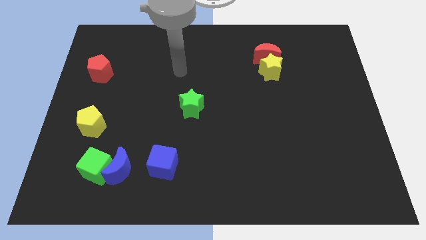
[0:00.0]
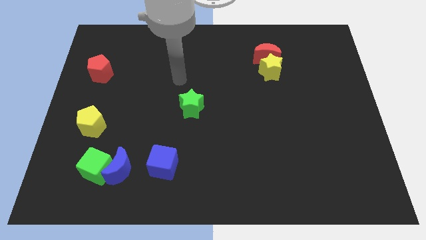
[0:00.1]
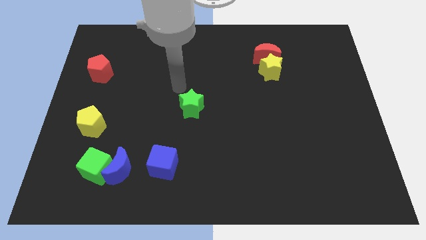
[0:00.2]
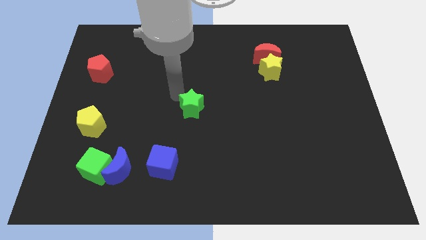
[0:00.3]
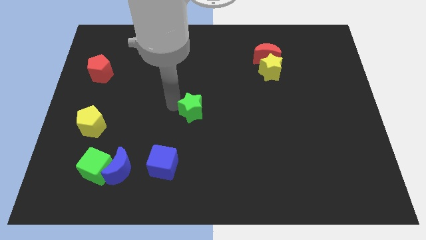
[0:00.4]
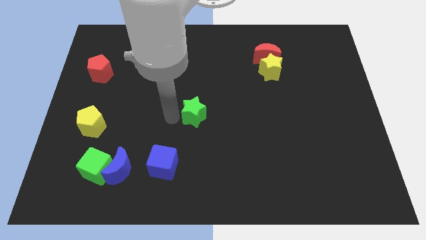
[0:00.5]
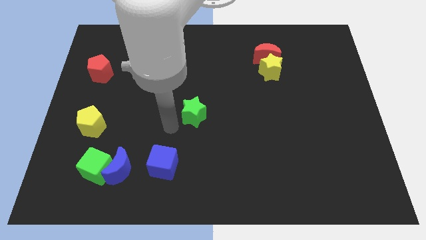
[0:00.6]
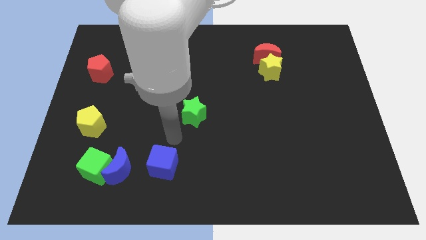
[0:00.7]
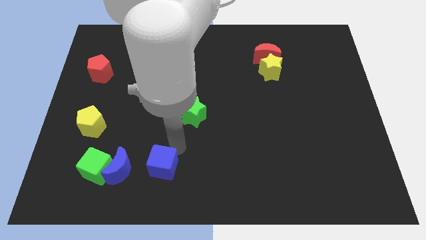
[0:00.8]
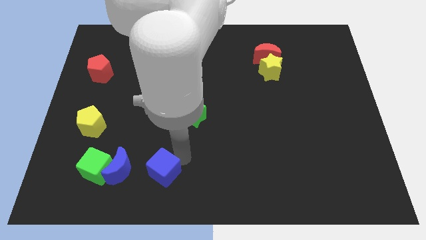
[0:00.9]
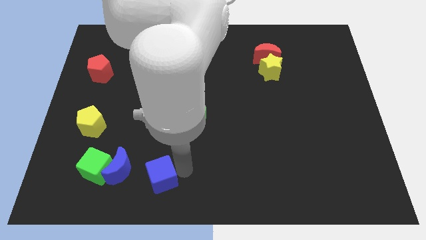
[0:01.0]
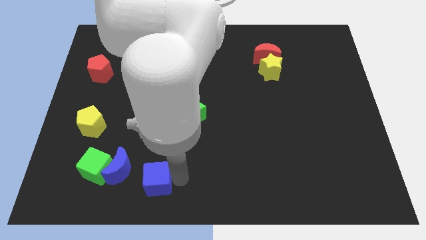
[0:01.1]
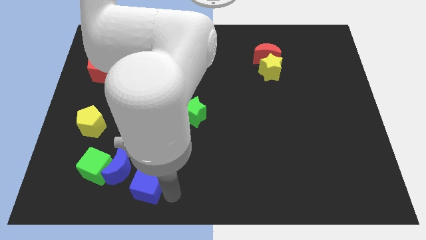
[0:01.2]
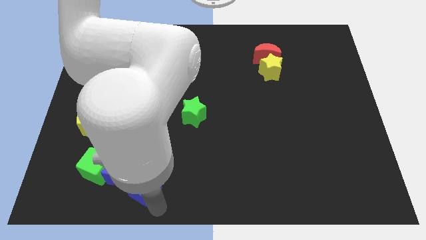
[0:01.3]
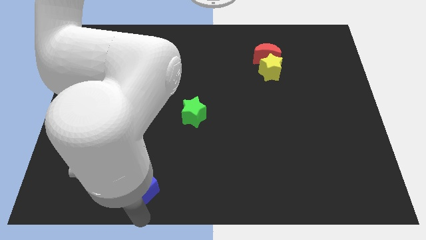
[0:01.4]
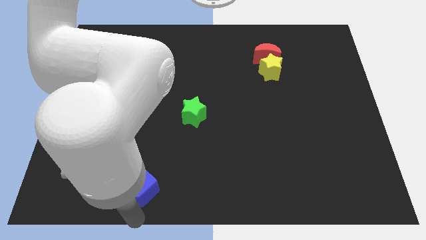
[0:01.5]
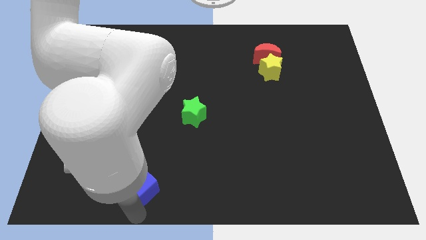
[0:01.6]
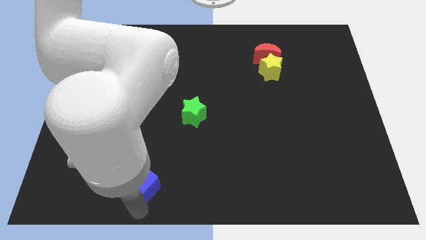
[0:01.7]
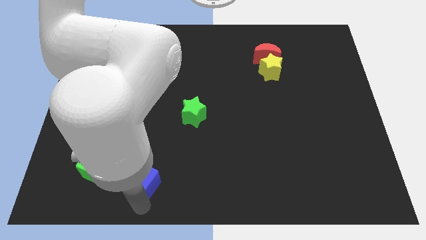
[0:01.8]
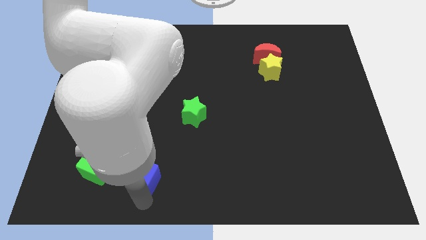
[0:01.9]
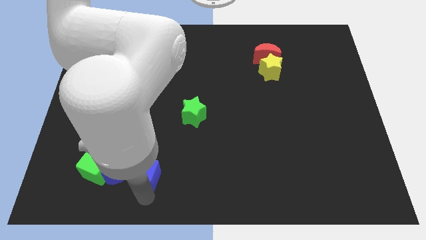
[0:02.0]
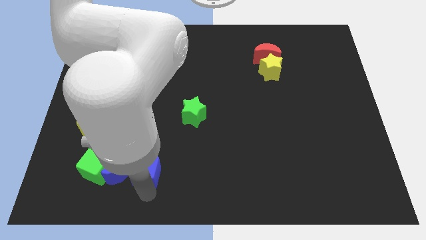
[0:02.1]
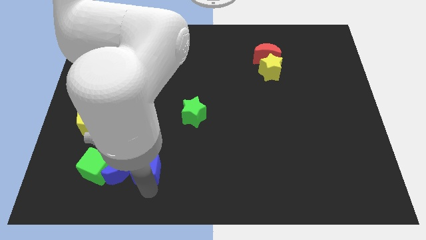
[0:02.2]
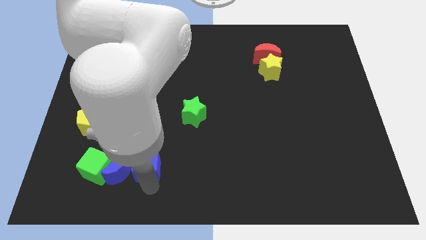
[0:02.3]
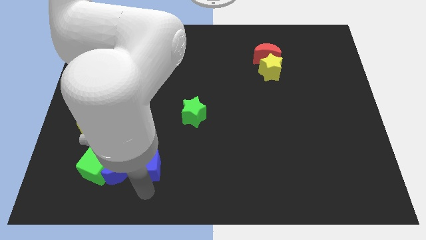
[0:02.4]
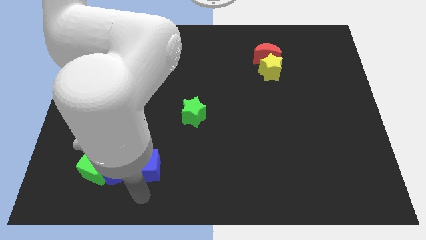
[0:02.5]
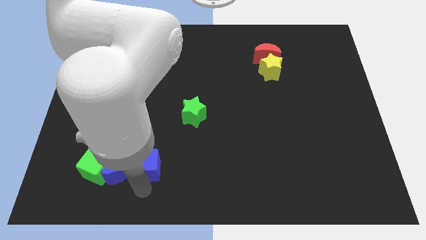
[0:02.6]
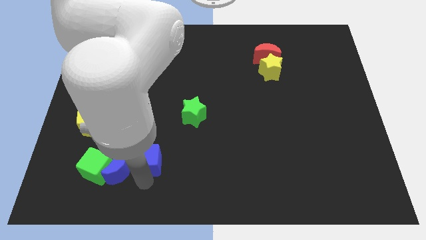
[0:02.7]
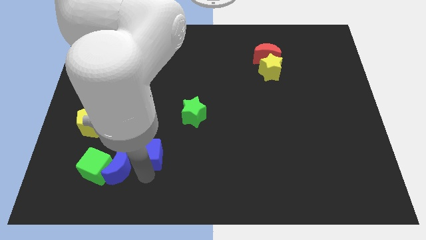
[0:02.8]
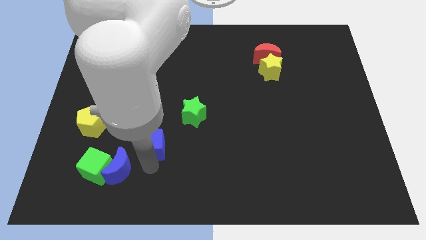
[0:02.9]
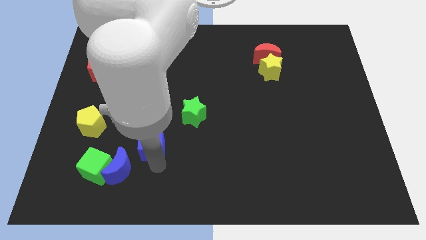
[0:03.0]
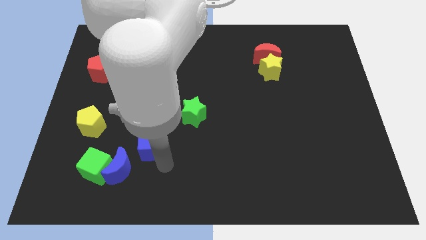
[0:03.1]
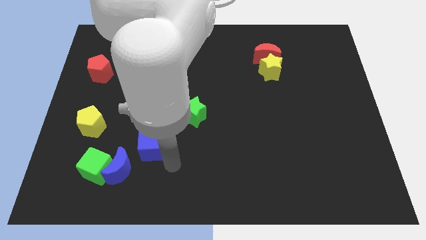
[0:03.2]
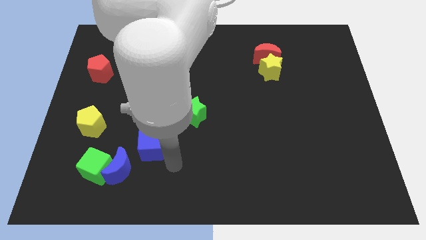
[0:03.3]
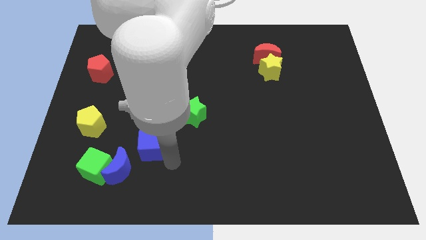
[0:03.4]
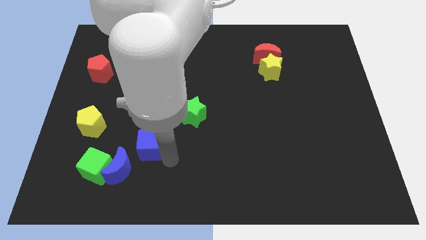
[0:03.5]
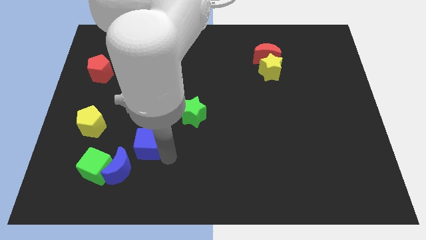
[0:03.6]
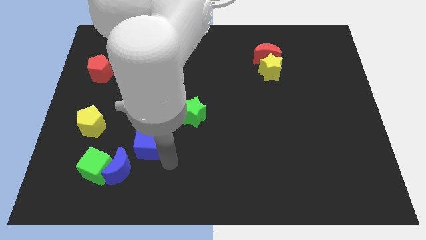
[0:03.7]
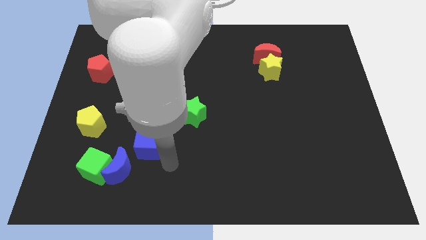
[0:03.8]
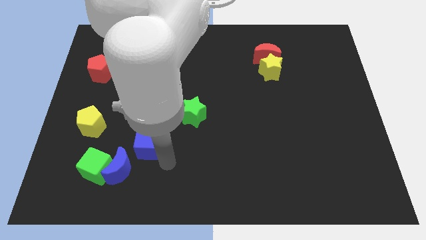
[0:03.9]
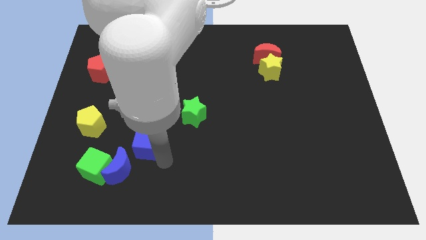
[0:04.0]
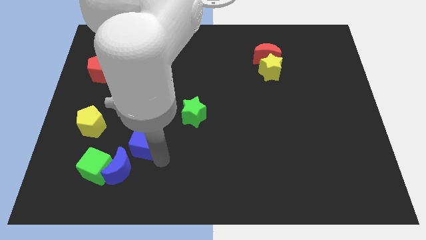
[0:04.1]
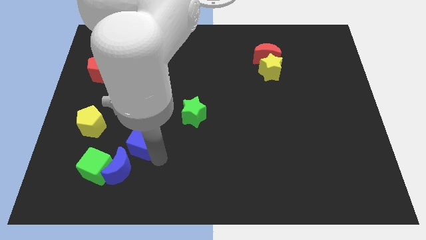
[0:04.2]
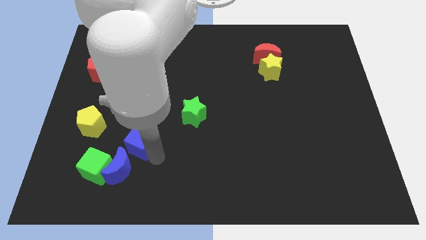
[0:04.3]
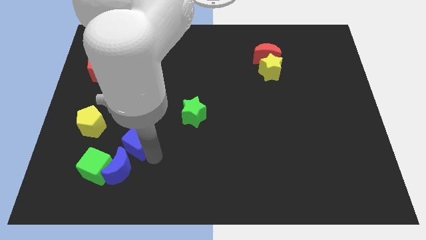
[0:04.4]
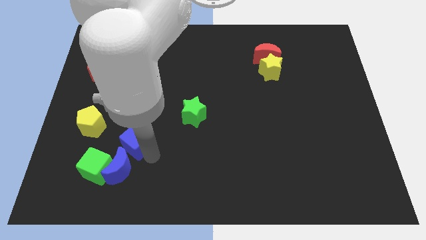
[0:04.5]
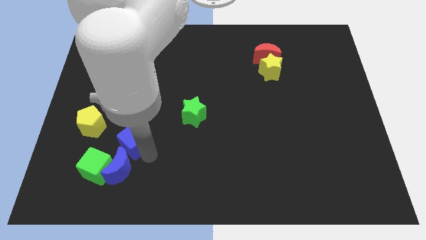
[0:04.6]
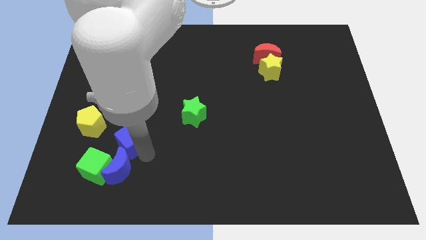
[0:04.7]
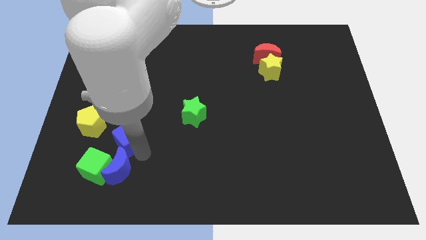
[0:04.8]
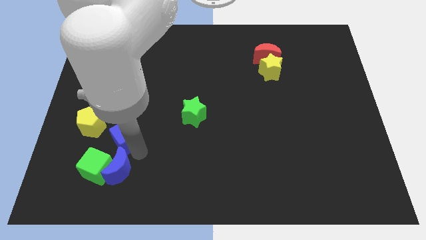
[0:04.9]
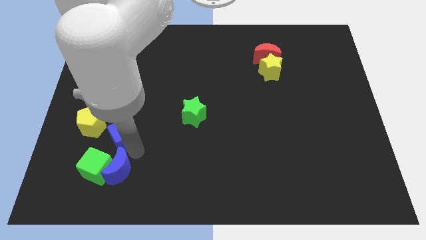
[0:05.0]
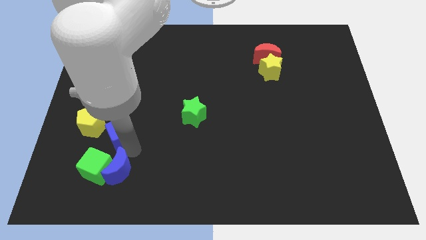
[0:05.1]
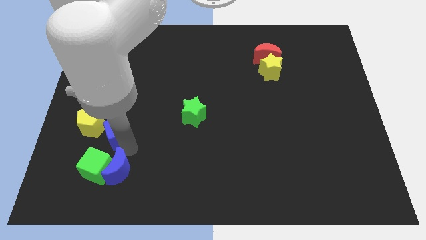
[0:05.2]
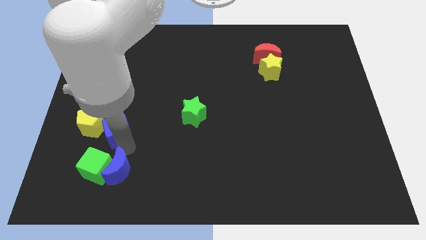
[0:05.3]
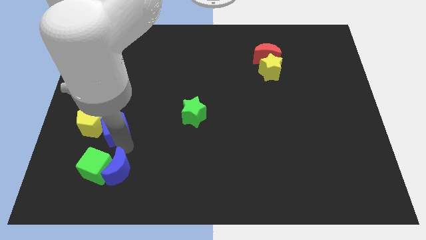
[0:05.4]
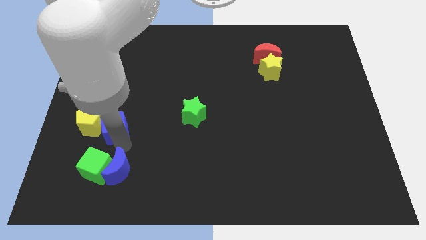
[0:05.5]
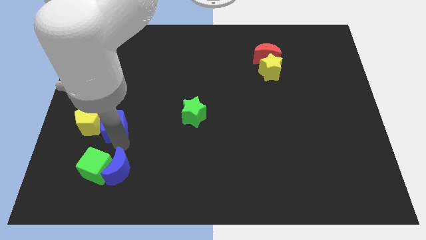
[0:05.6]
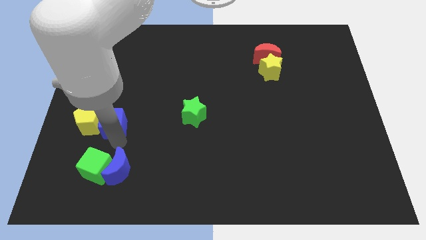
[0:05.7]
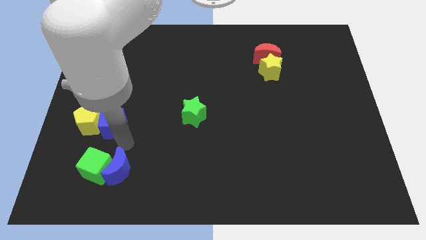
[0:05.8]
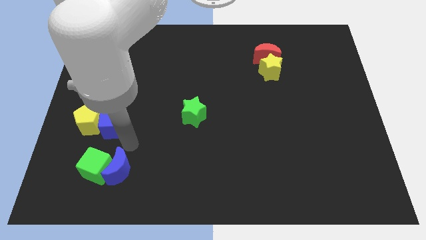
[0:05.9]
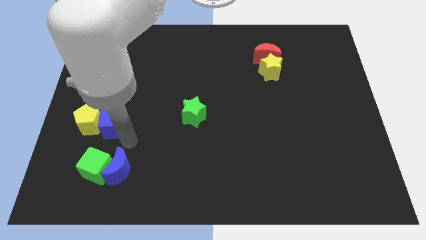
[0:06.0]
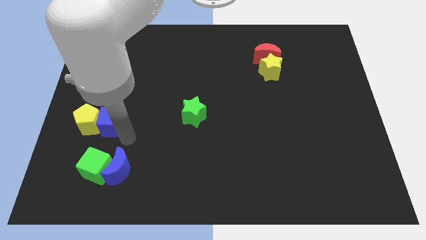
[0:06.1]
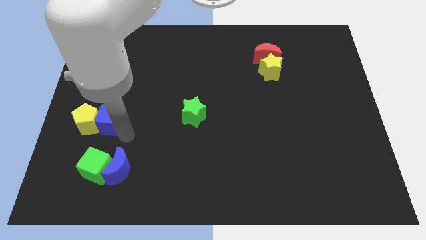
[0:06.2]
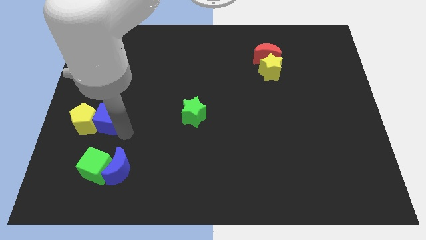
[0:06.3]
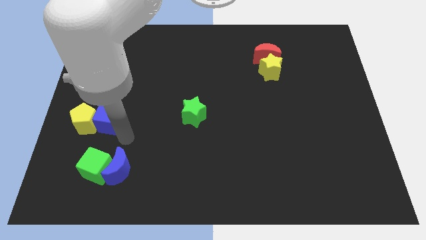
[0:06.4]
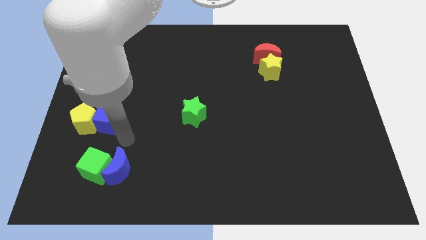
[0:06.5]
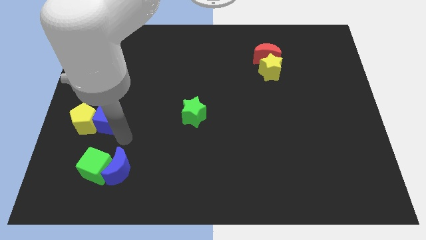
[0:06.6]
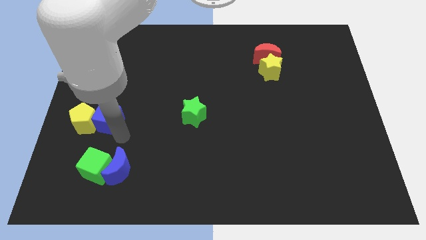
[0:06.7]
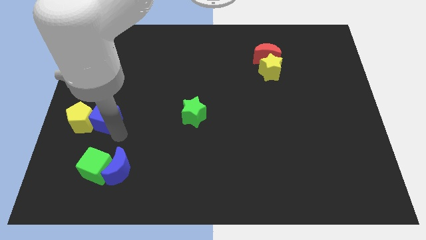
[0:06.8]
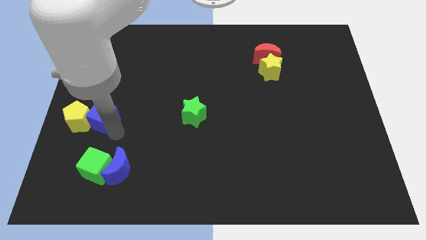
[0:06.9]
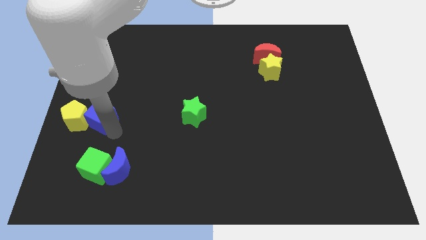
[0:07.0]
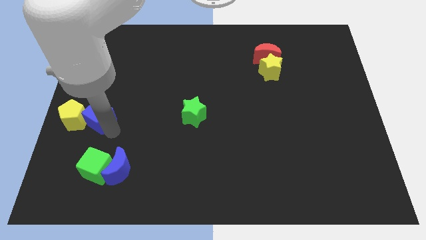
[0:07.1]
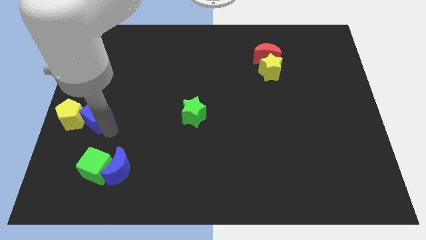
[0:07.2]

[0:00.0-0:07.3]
push the blue cube to the left side
